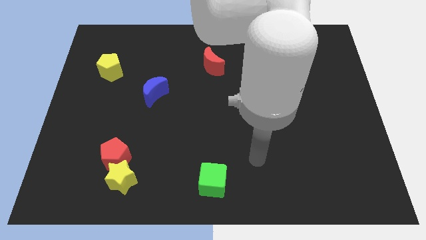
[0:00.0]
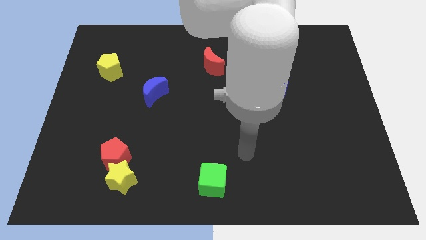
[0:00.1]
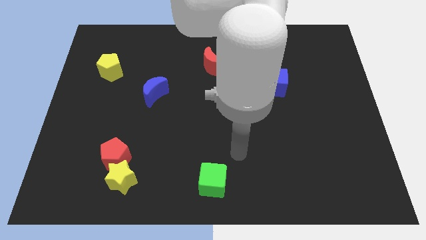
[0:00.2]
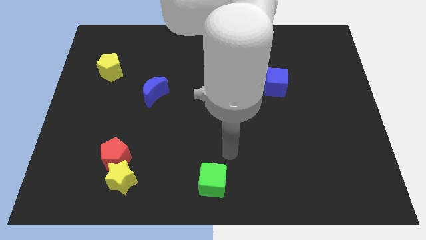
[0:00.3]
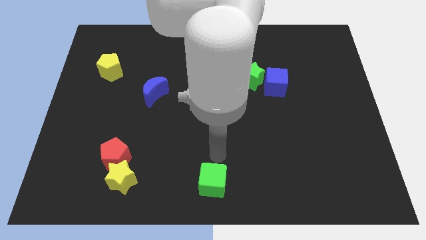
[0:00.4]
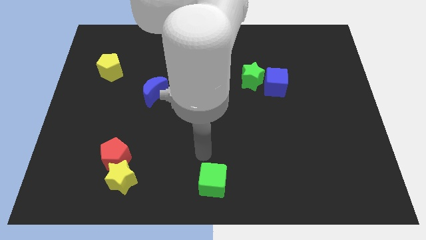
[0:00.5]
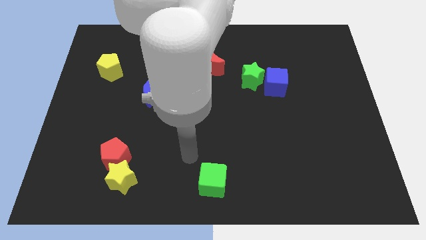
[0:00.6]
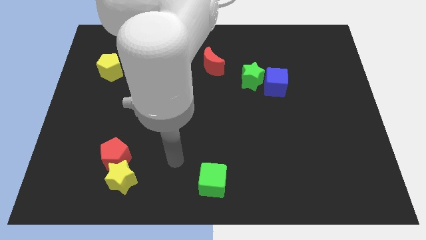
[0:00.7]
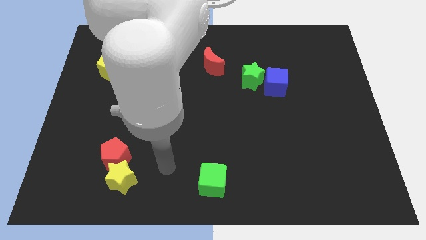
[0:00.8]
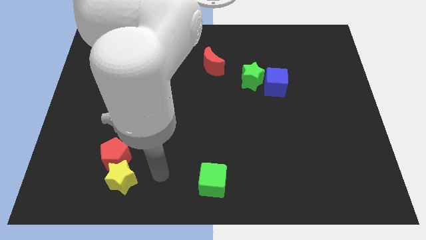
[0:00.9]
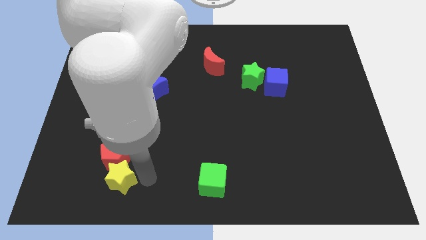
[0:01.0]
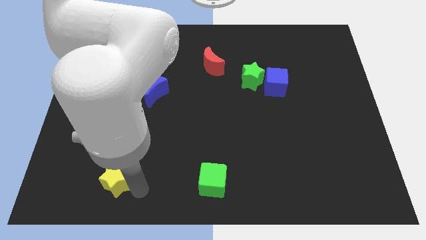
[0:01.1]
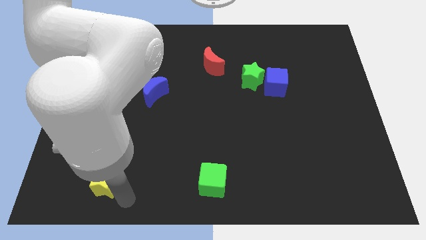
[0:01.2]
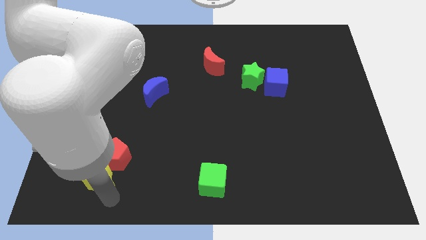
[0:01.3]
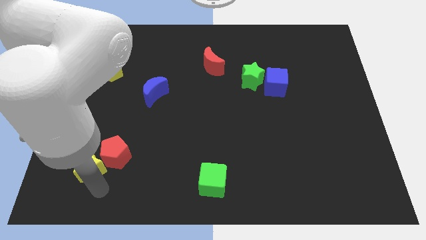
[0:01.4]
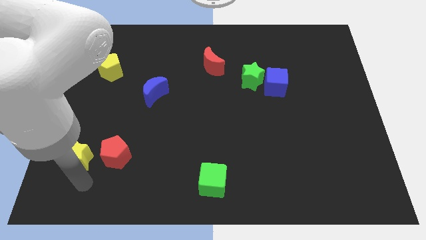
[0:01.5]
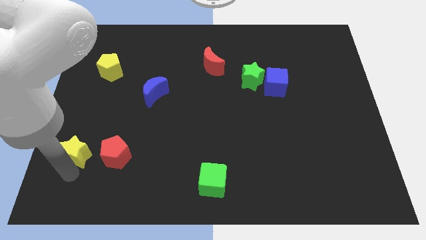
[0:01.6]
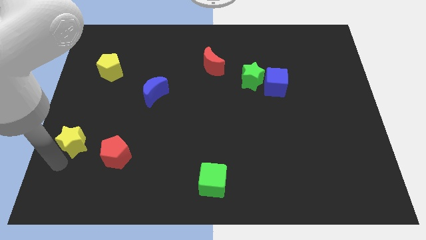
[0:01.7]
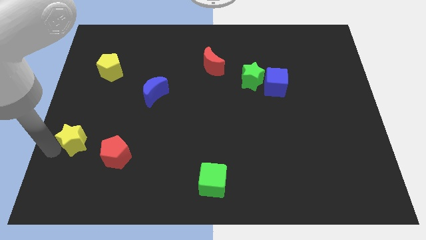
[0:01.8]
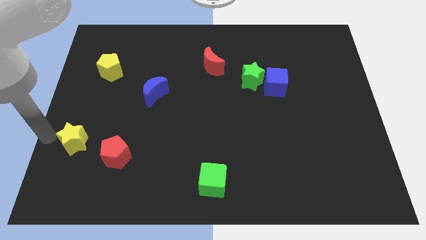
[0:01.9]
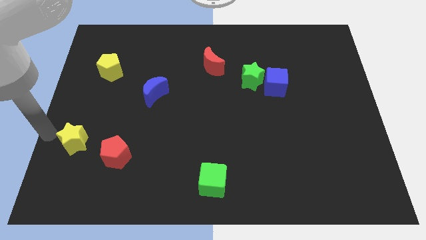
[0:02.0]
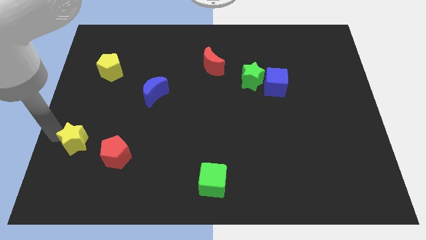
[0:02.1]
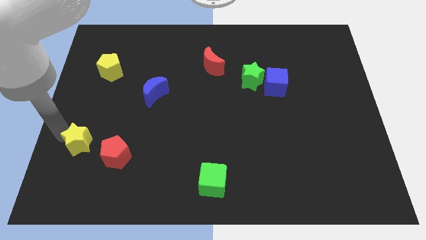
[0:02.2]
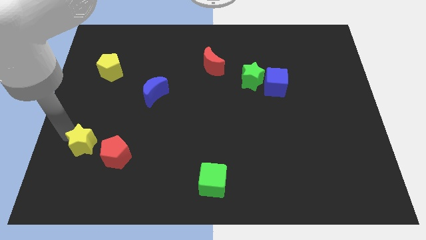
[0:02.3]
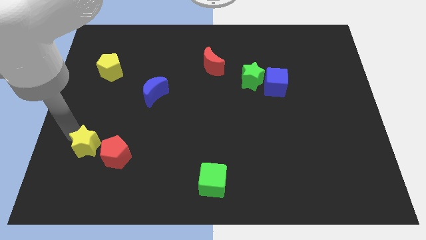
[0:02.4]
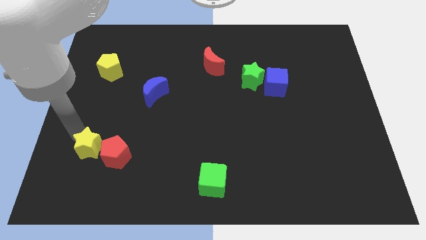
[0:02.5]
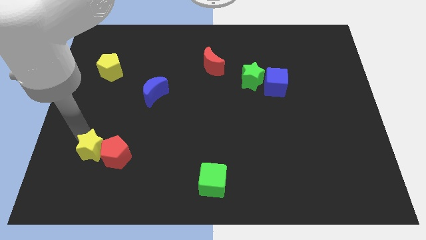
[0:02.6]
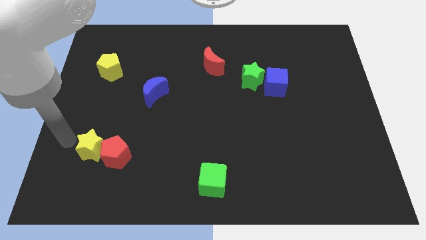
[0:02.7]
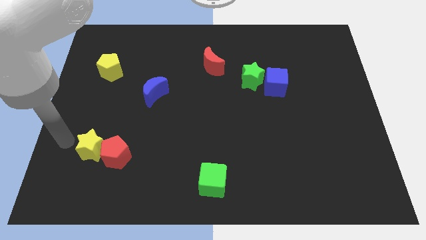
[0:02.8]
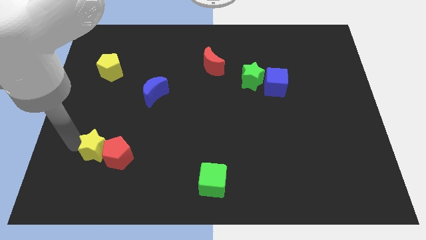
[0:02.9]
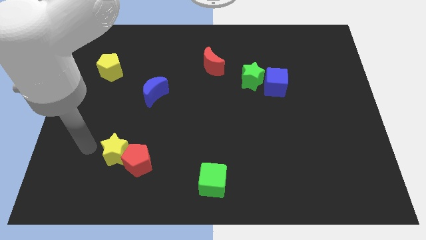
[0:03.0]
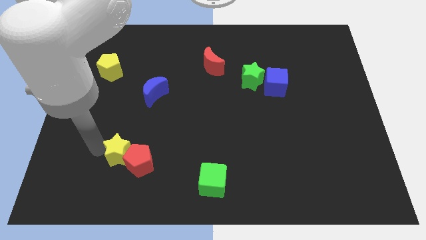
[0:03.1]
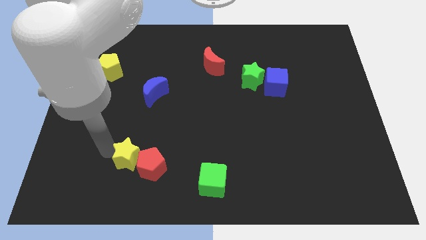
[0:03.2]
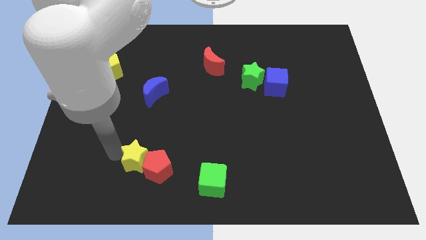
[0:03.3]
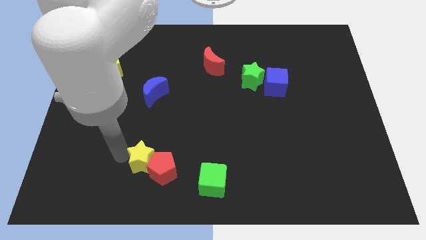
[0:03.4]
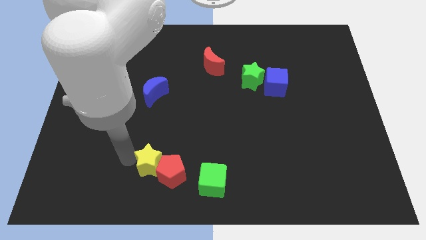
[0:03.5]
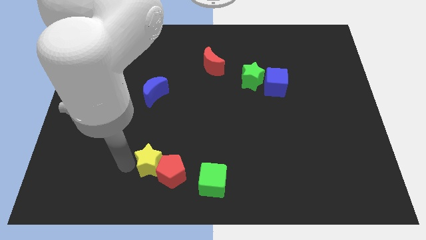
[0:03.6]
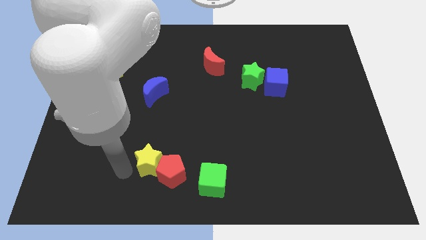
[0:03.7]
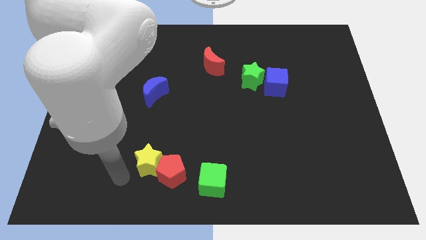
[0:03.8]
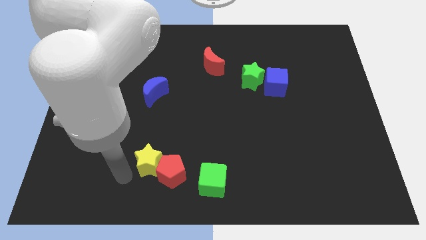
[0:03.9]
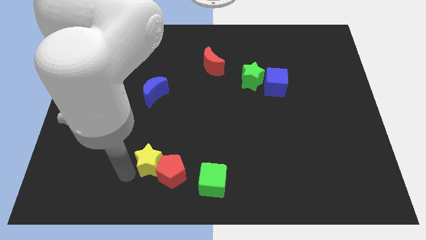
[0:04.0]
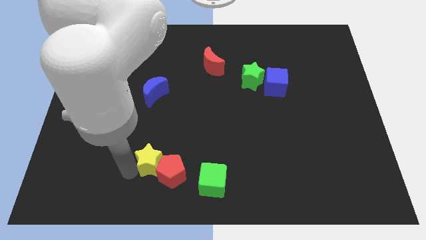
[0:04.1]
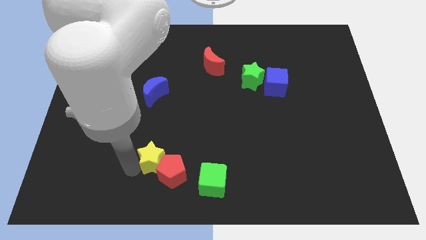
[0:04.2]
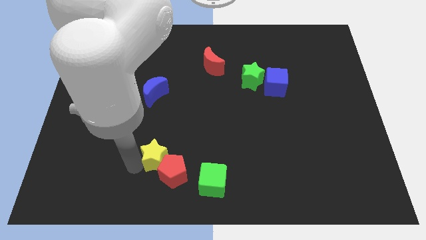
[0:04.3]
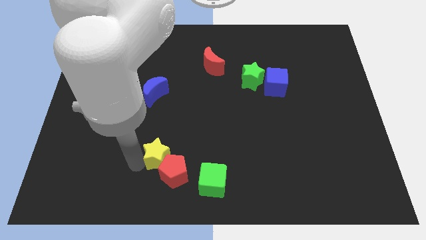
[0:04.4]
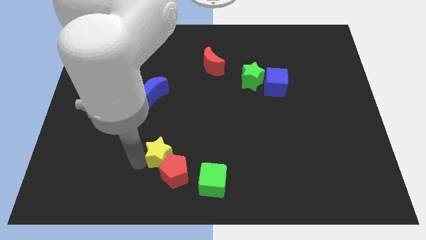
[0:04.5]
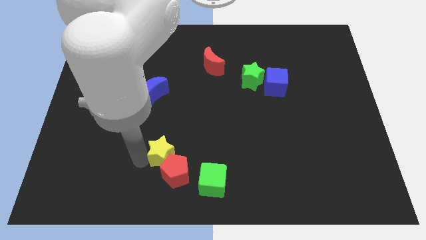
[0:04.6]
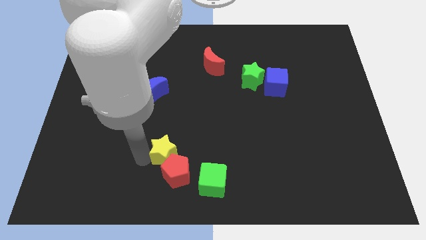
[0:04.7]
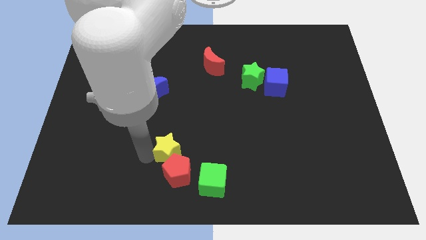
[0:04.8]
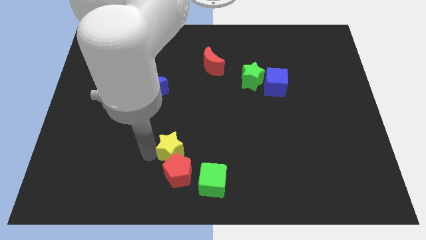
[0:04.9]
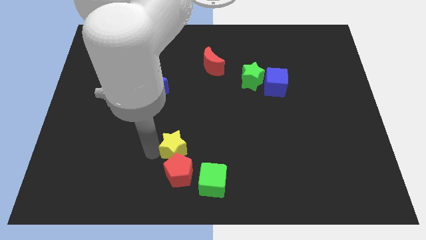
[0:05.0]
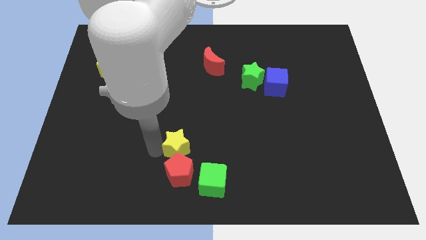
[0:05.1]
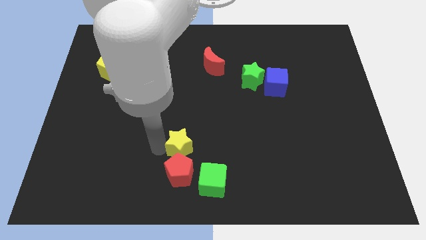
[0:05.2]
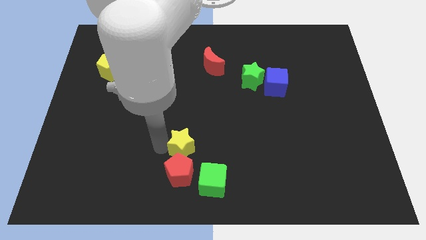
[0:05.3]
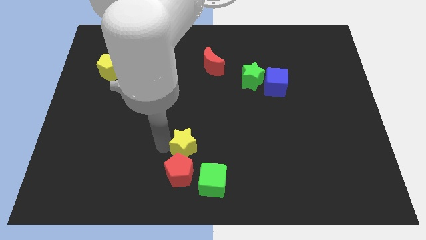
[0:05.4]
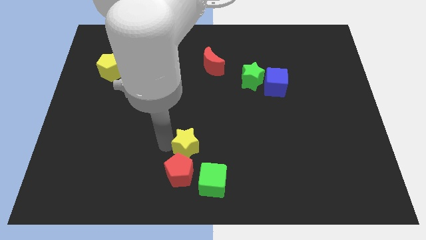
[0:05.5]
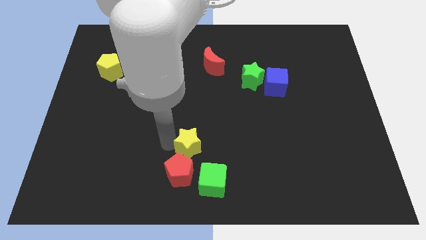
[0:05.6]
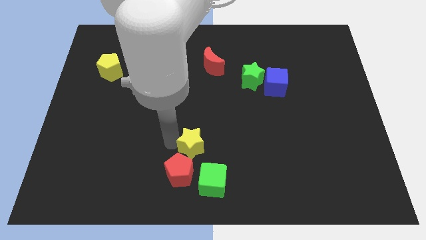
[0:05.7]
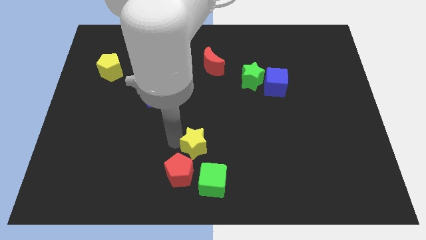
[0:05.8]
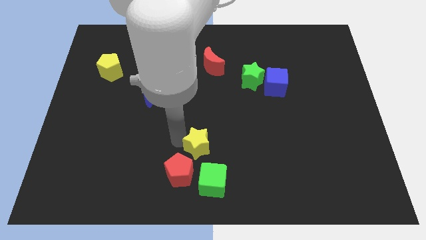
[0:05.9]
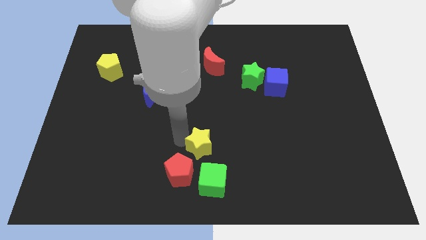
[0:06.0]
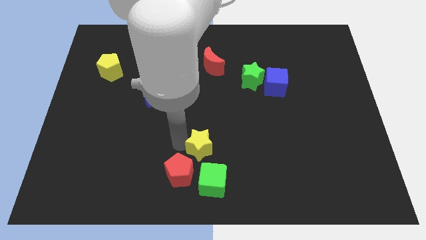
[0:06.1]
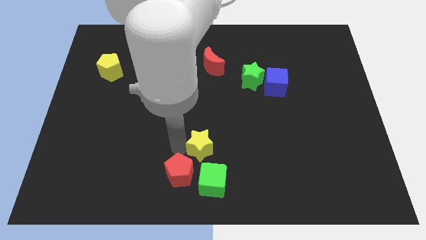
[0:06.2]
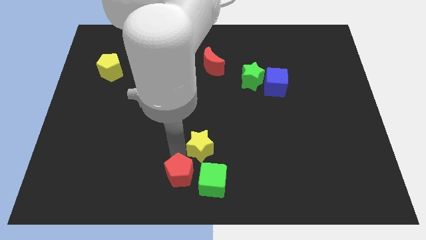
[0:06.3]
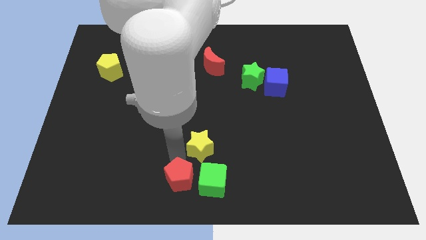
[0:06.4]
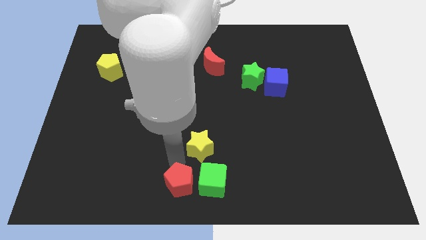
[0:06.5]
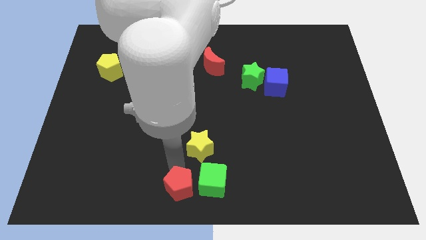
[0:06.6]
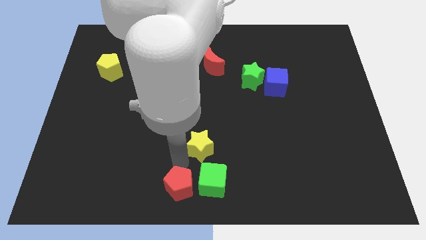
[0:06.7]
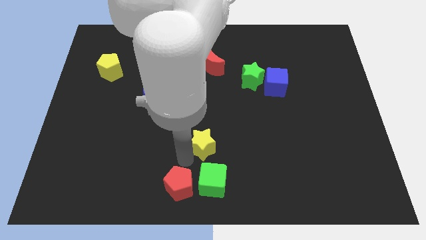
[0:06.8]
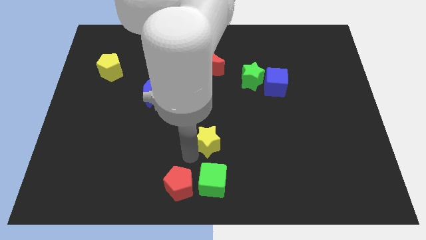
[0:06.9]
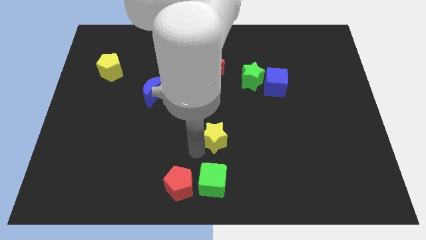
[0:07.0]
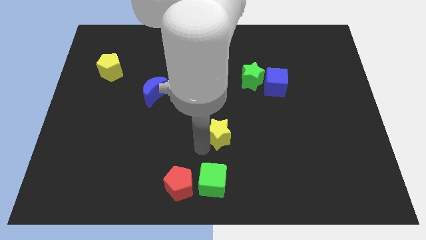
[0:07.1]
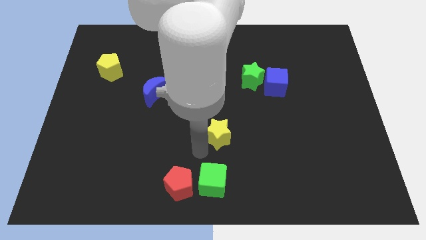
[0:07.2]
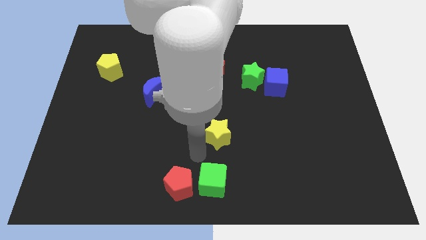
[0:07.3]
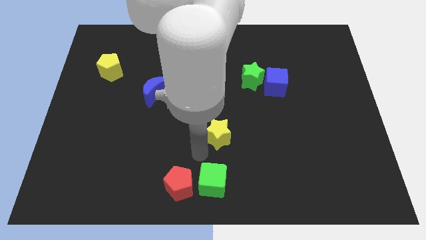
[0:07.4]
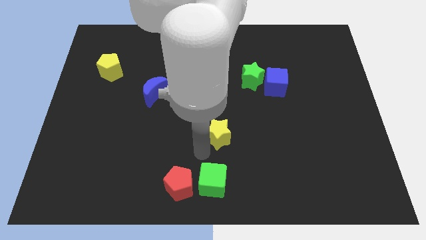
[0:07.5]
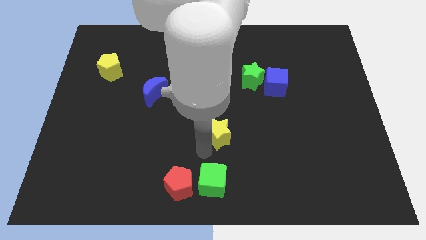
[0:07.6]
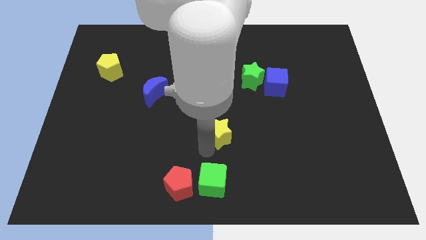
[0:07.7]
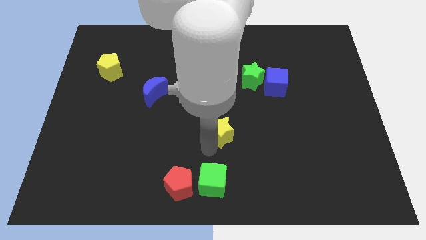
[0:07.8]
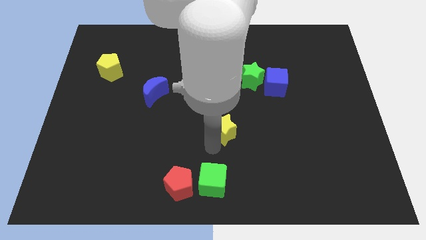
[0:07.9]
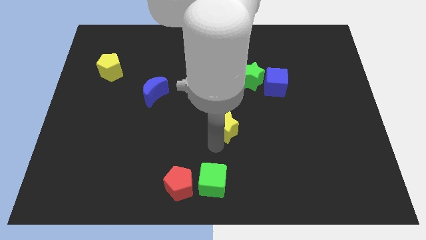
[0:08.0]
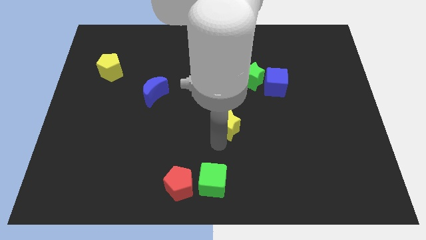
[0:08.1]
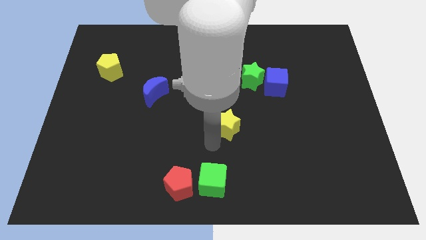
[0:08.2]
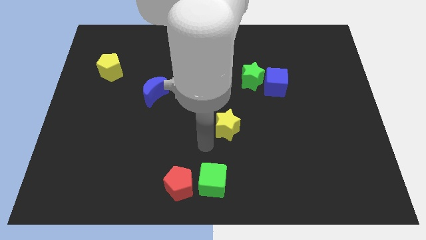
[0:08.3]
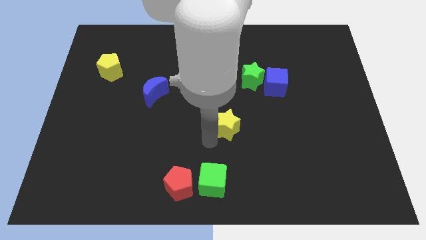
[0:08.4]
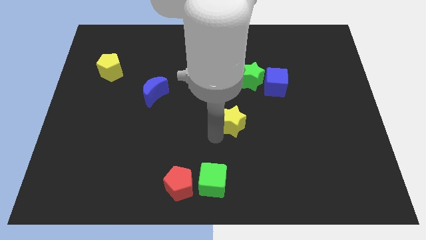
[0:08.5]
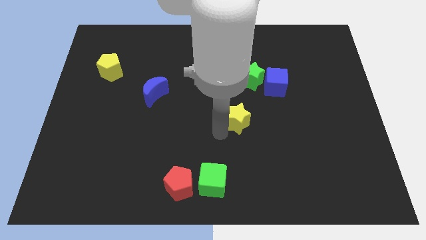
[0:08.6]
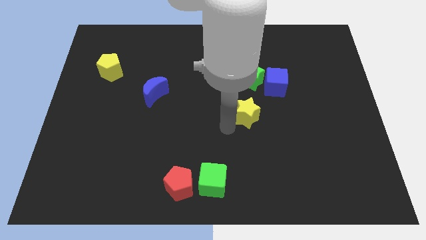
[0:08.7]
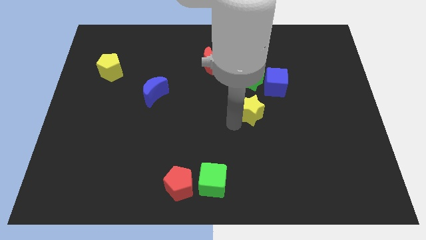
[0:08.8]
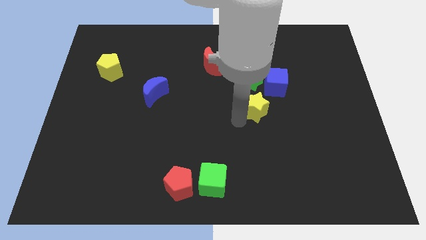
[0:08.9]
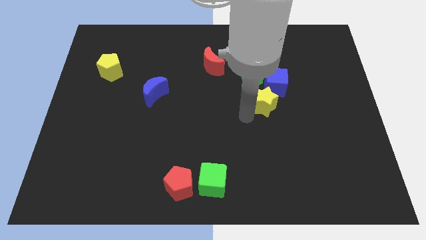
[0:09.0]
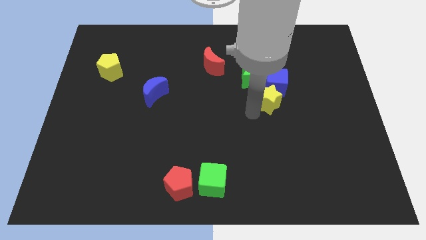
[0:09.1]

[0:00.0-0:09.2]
slide the yellow star next to the blue cube
